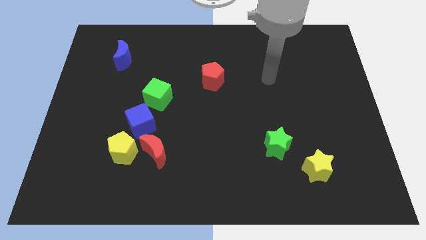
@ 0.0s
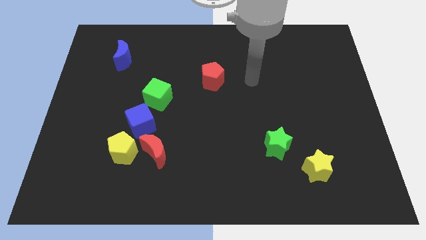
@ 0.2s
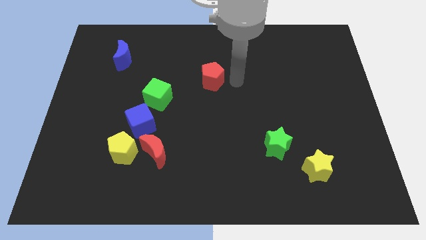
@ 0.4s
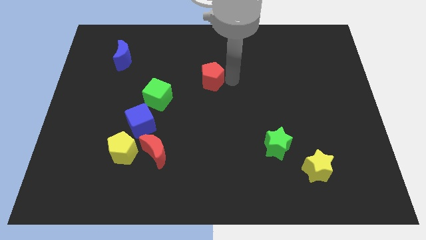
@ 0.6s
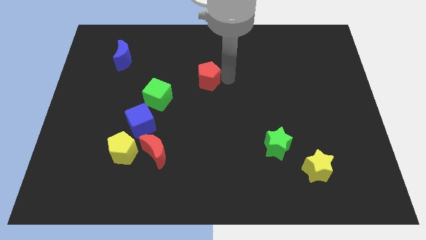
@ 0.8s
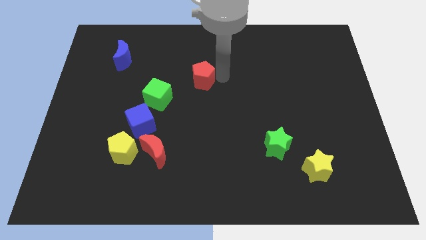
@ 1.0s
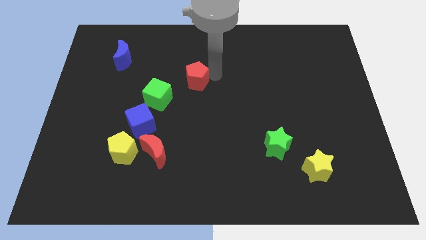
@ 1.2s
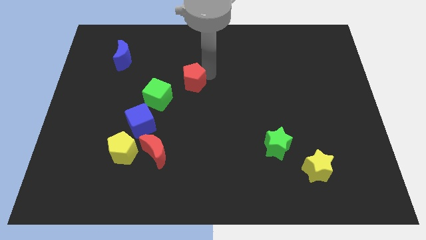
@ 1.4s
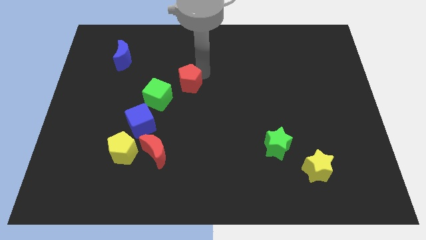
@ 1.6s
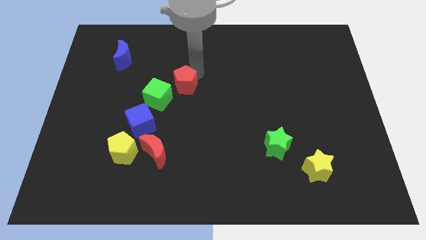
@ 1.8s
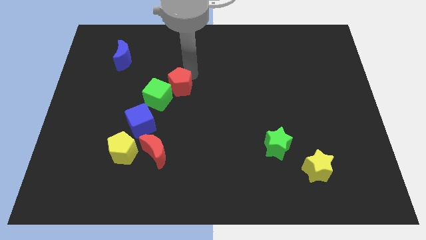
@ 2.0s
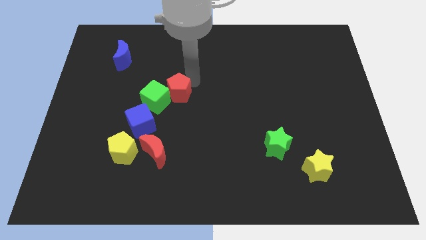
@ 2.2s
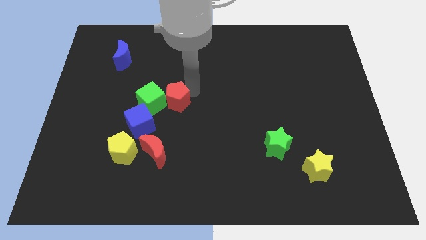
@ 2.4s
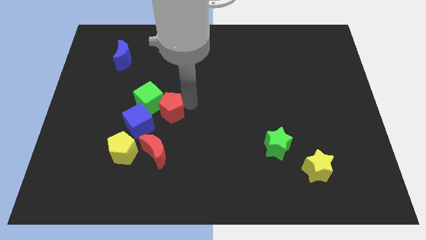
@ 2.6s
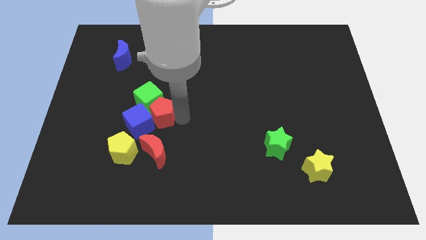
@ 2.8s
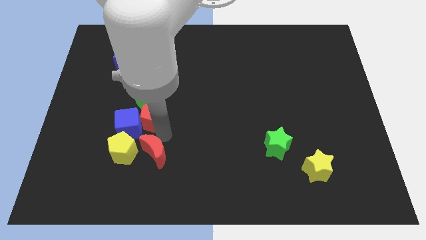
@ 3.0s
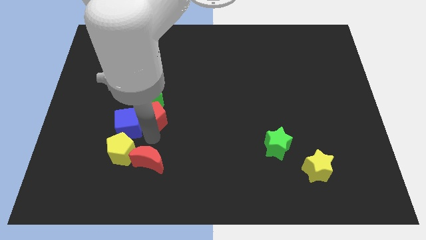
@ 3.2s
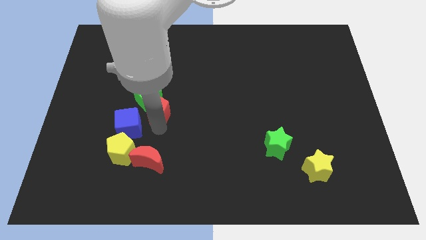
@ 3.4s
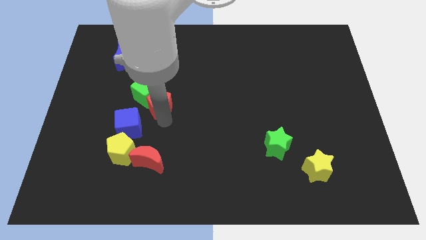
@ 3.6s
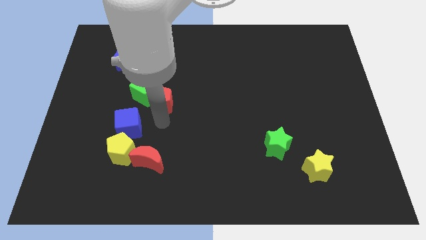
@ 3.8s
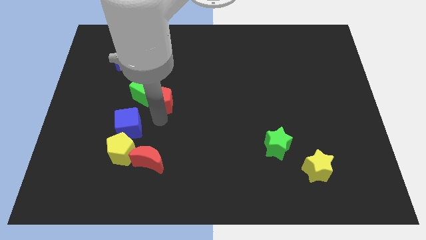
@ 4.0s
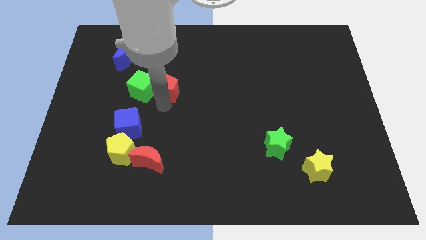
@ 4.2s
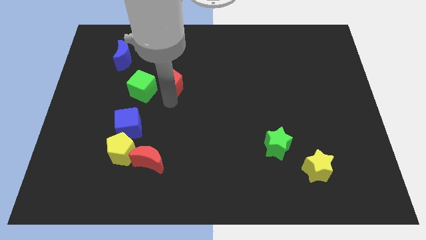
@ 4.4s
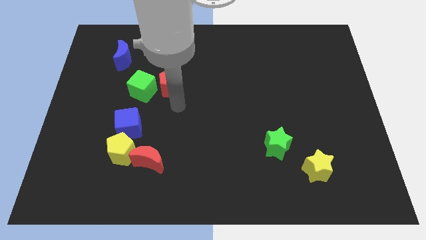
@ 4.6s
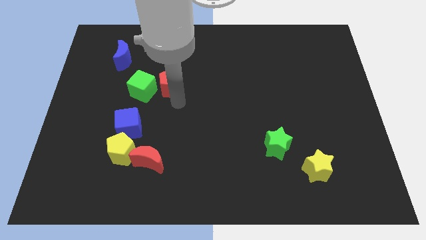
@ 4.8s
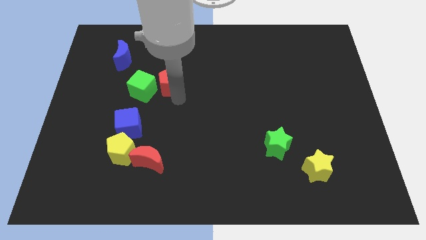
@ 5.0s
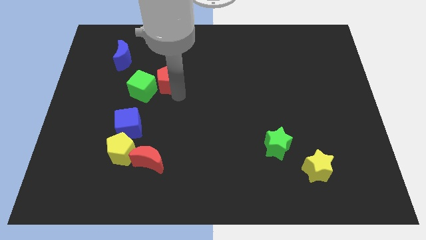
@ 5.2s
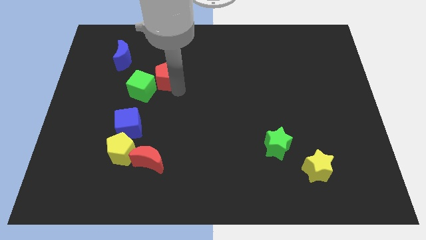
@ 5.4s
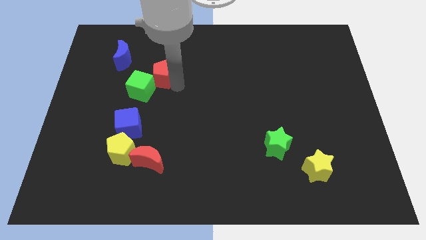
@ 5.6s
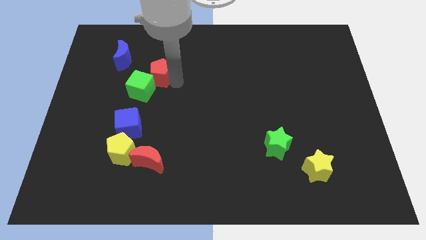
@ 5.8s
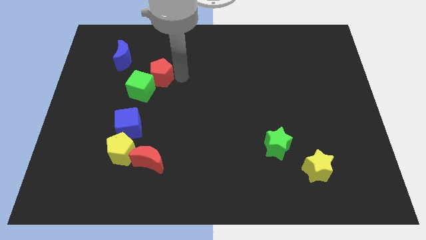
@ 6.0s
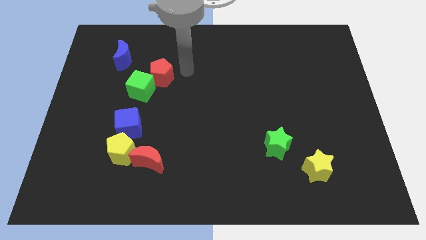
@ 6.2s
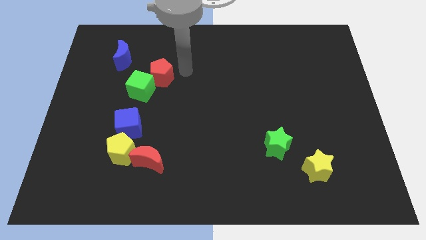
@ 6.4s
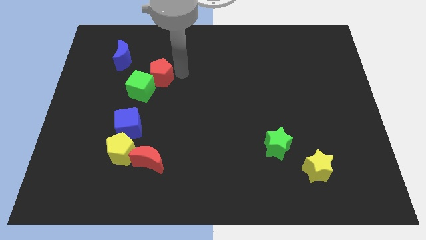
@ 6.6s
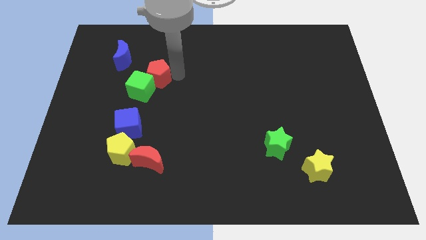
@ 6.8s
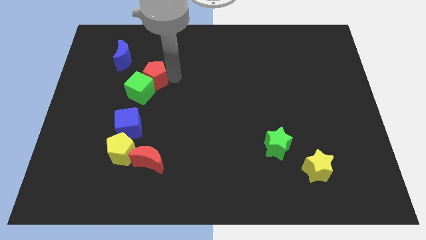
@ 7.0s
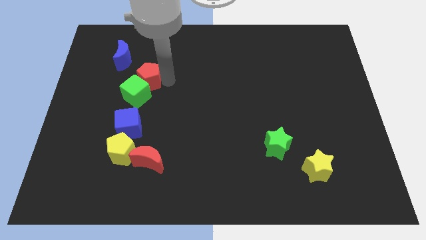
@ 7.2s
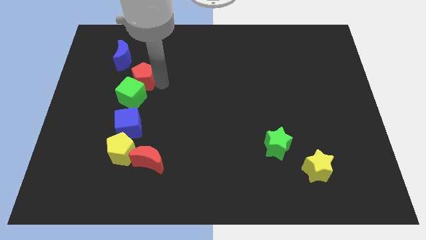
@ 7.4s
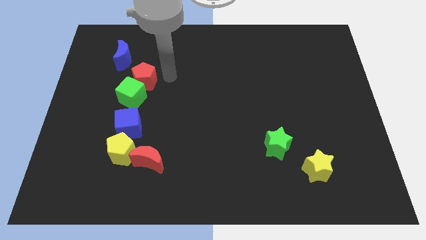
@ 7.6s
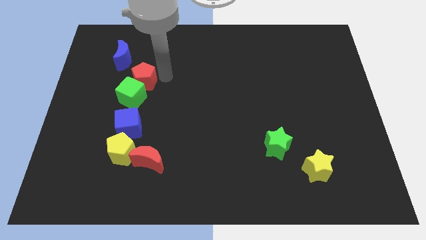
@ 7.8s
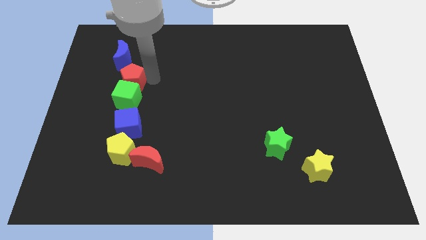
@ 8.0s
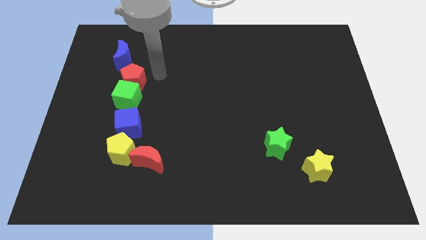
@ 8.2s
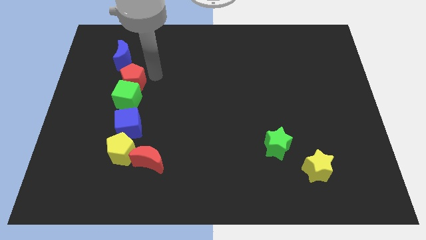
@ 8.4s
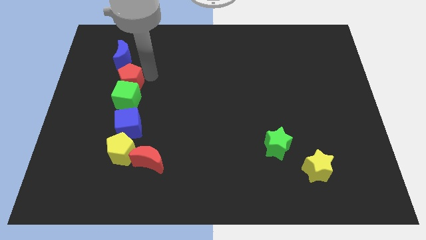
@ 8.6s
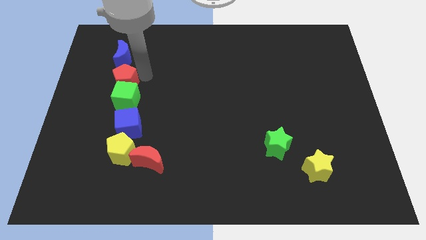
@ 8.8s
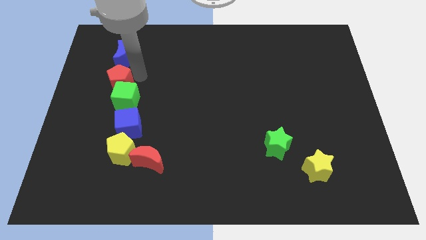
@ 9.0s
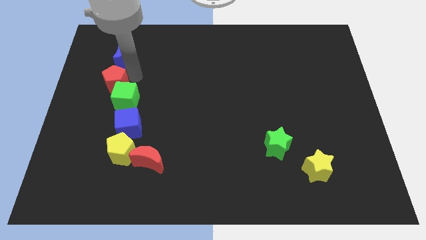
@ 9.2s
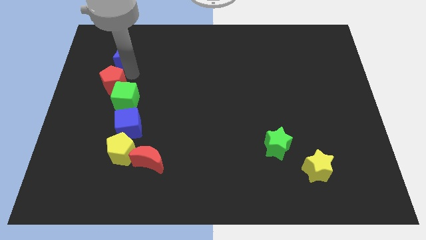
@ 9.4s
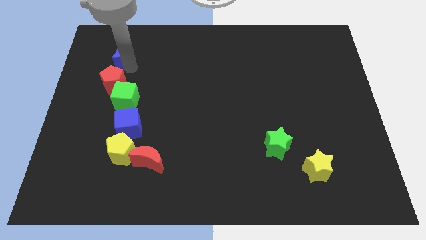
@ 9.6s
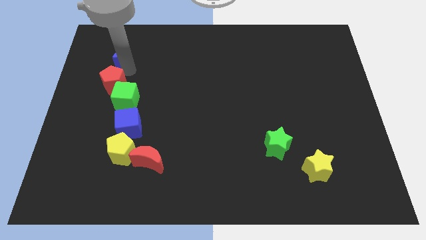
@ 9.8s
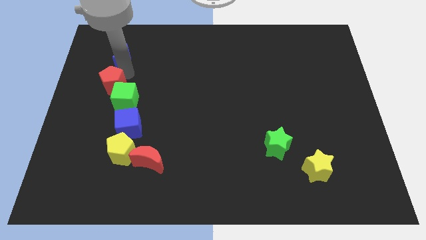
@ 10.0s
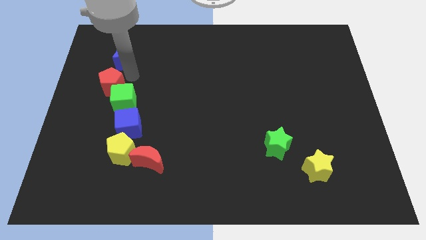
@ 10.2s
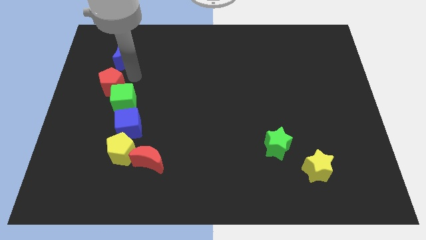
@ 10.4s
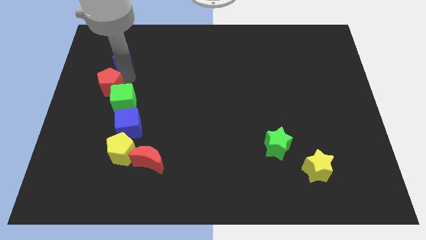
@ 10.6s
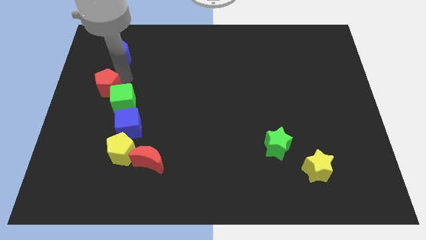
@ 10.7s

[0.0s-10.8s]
move the red pentagon to the center left
